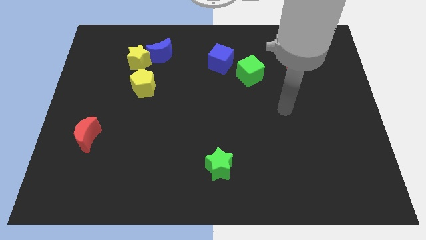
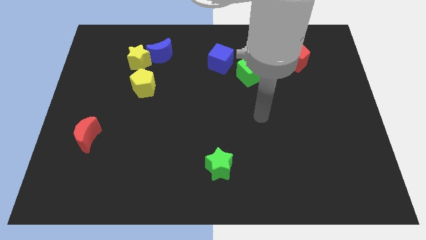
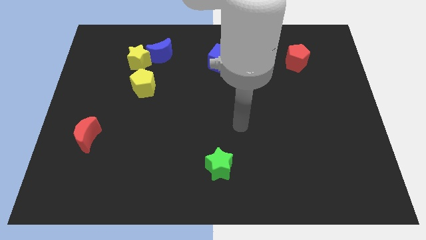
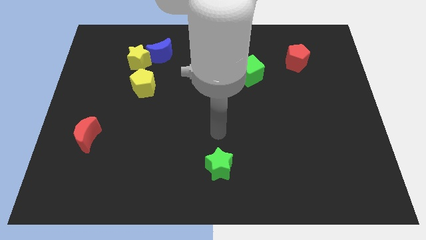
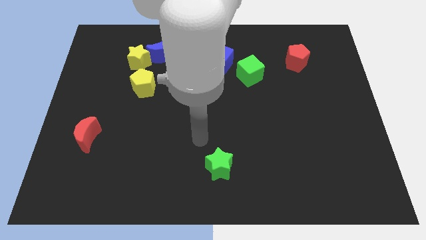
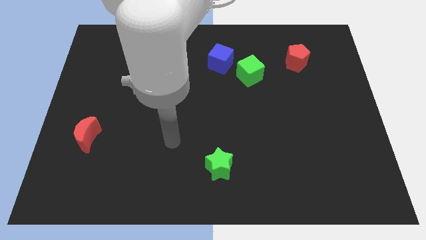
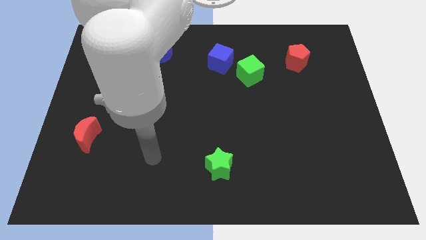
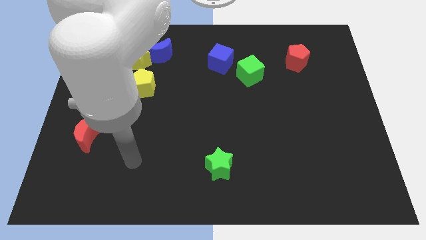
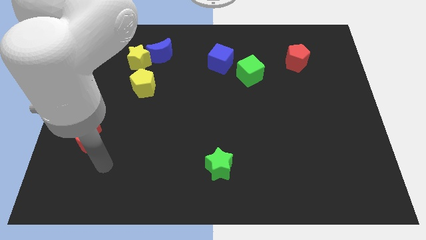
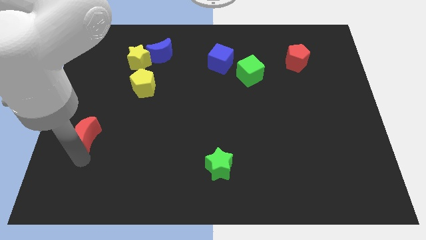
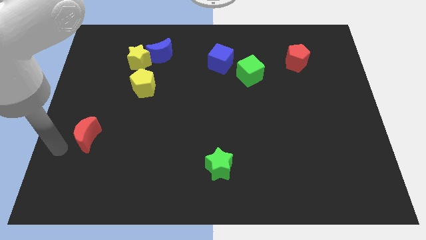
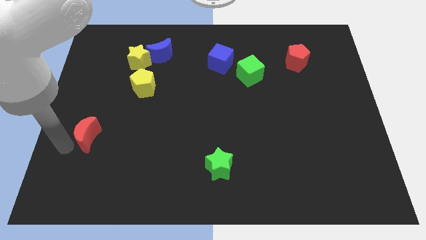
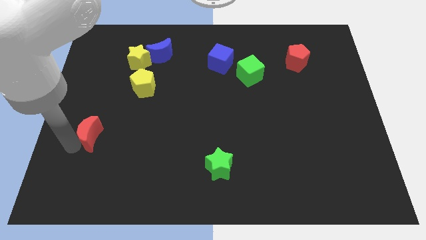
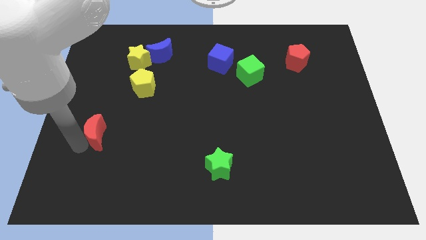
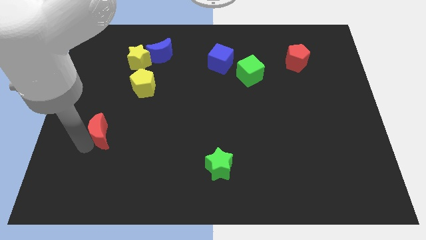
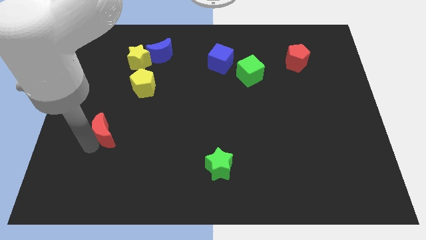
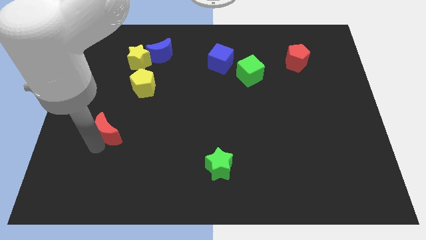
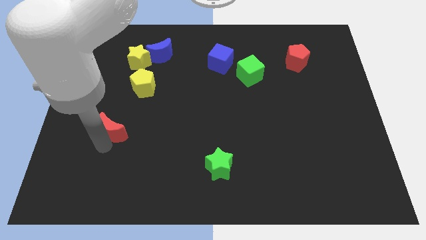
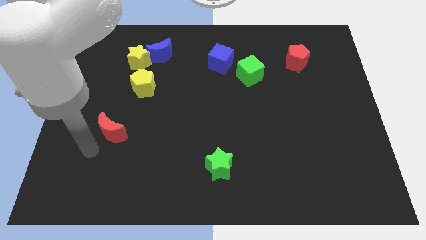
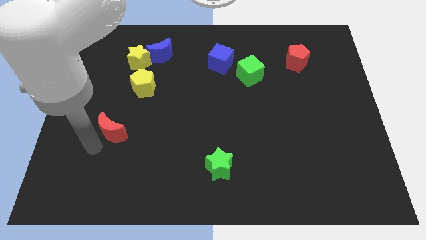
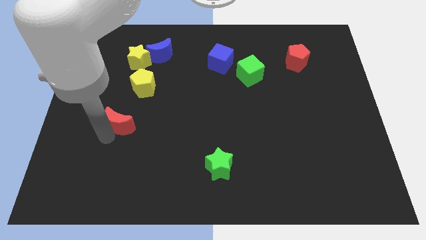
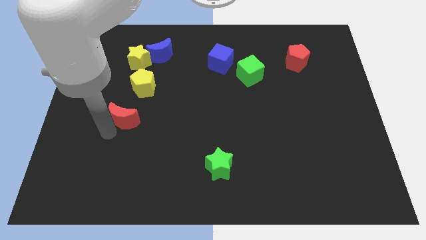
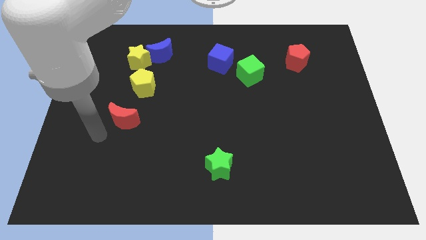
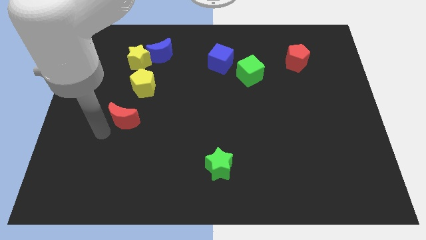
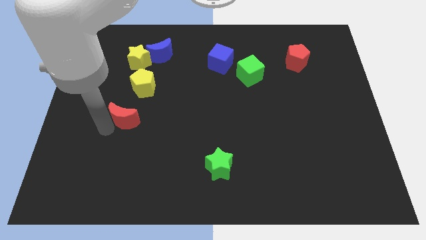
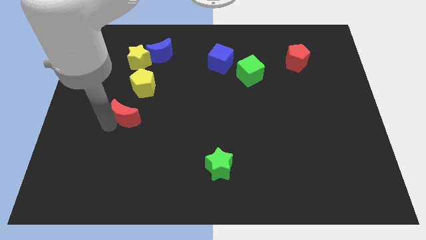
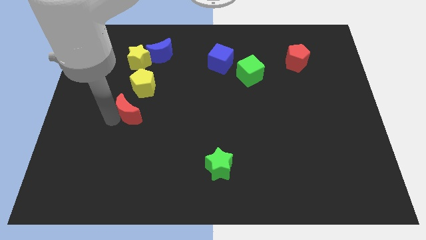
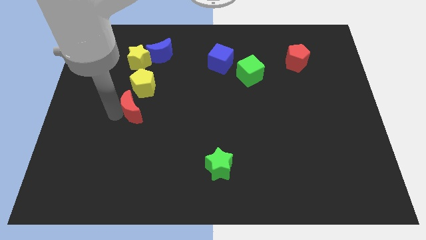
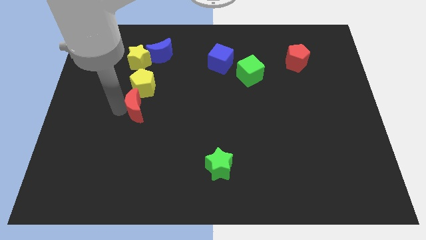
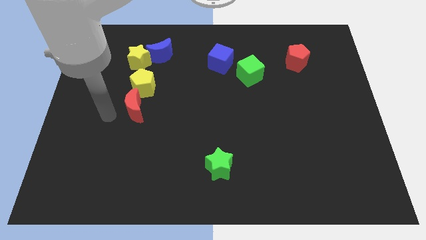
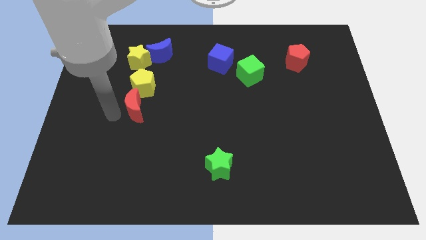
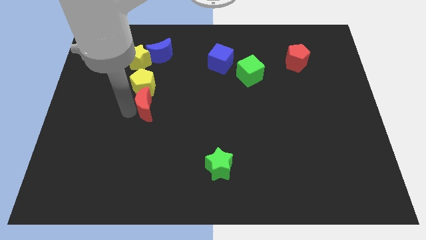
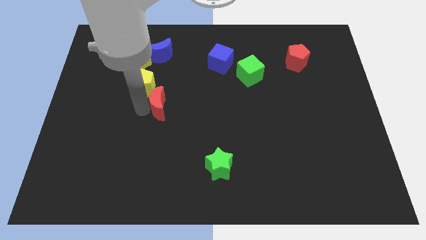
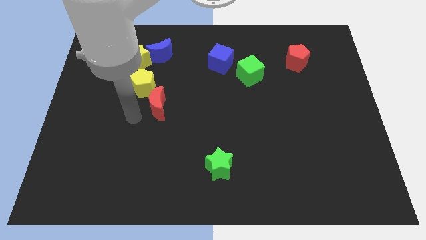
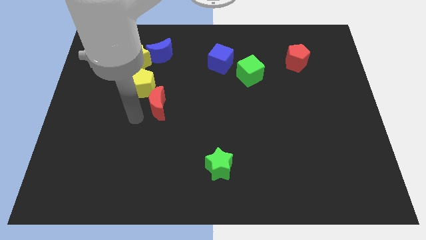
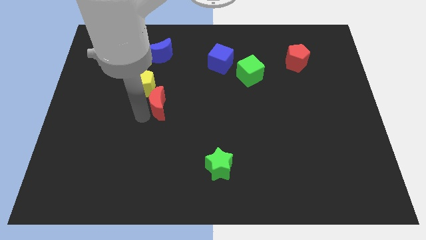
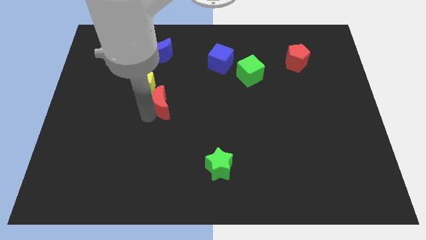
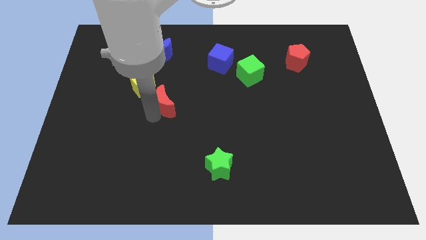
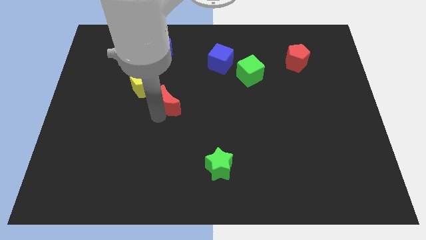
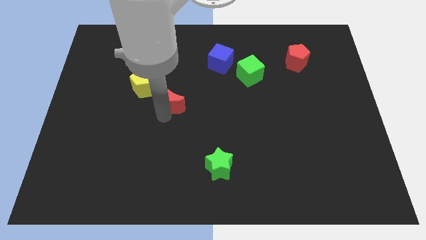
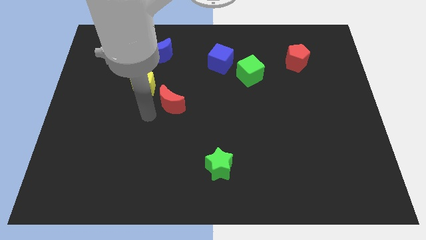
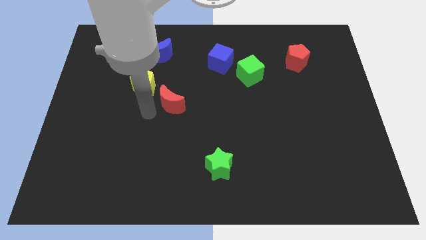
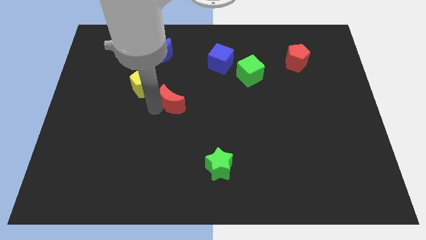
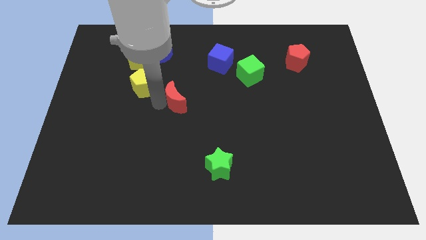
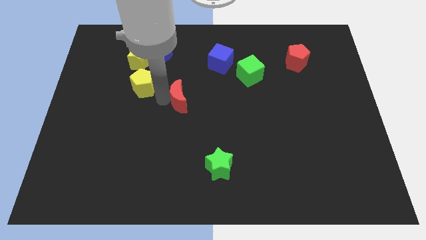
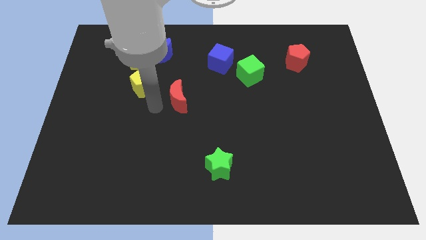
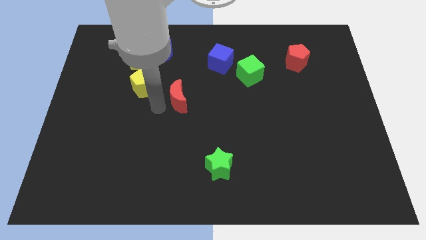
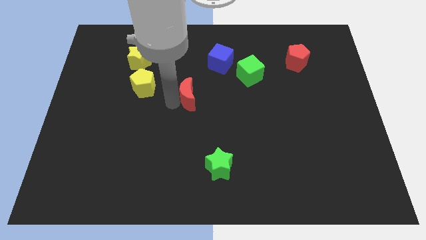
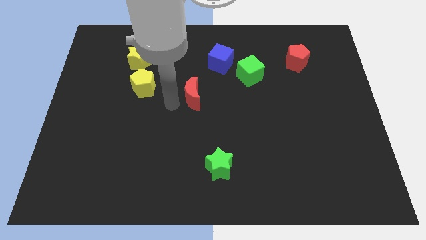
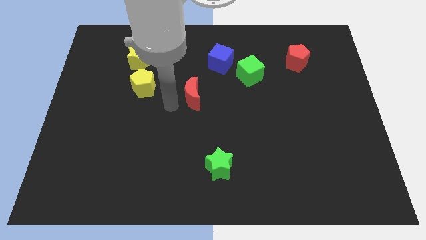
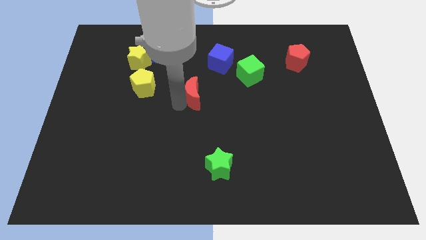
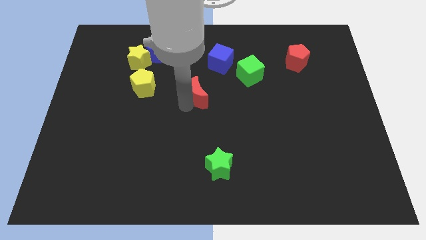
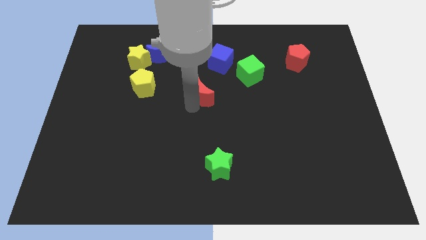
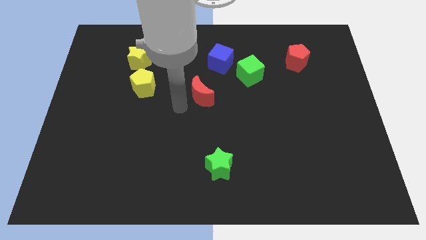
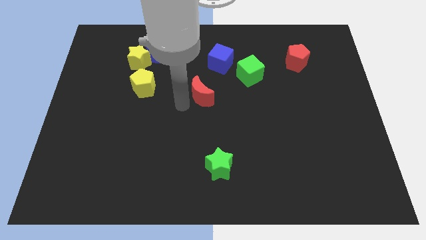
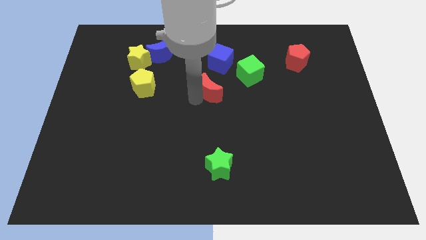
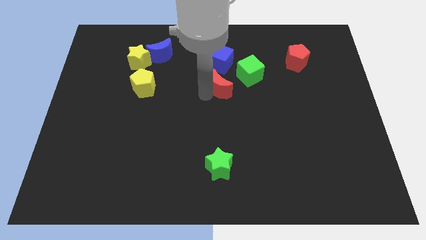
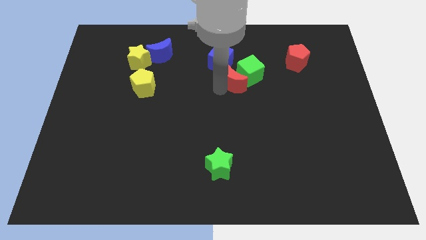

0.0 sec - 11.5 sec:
slide the red moon to the green cube
